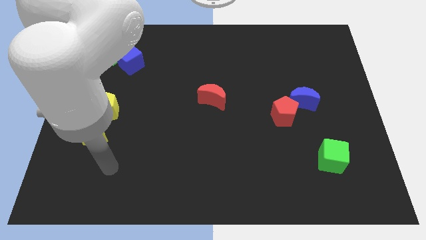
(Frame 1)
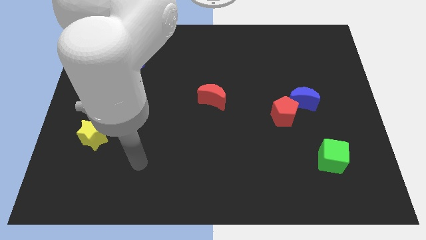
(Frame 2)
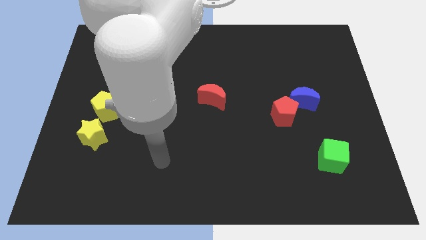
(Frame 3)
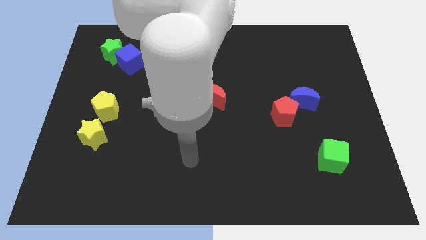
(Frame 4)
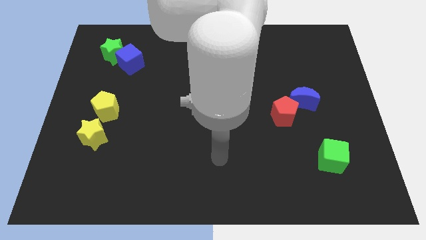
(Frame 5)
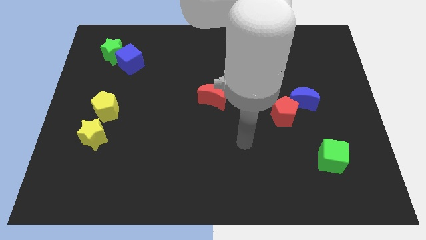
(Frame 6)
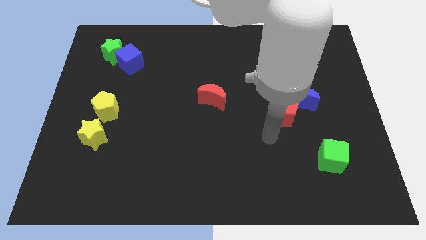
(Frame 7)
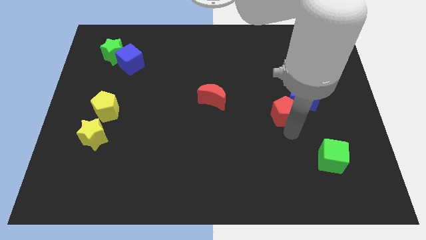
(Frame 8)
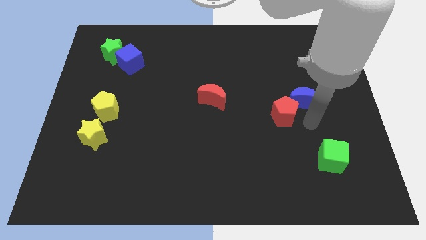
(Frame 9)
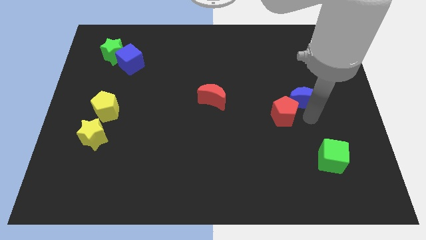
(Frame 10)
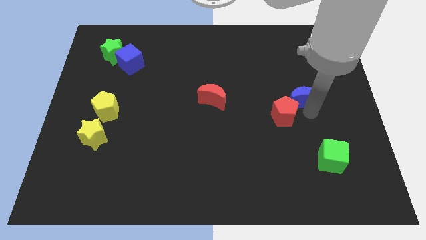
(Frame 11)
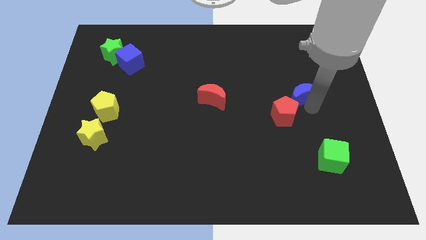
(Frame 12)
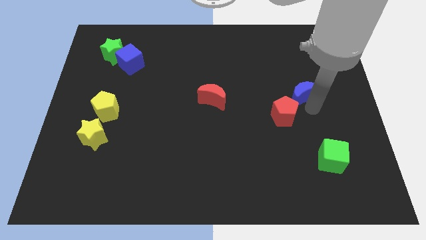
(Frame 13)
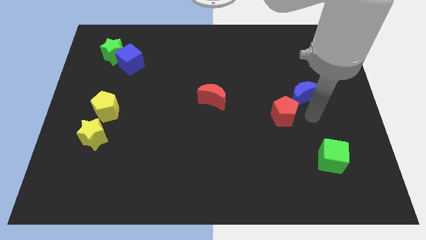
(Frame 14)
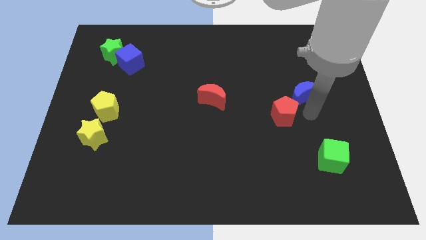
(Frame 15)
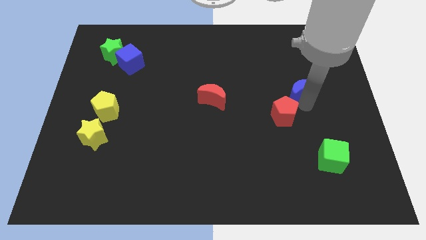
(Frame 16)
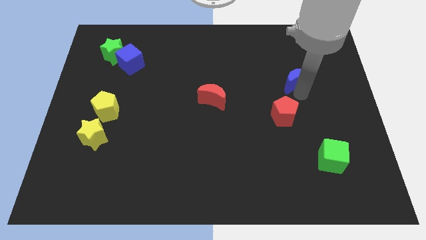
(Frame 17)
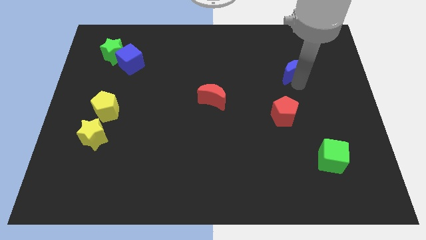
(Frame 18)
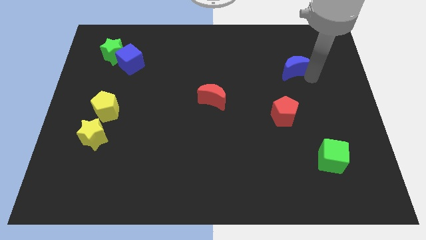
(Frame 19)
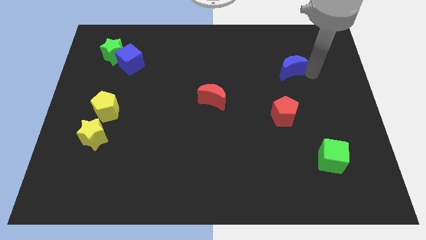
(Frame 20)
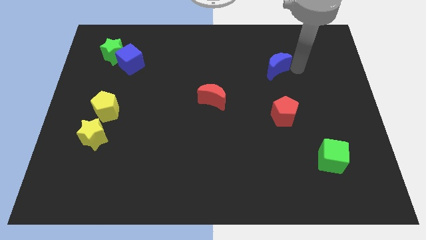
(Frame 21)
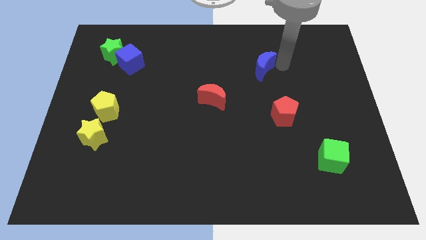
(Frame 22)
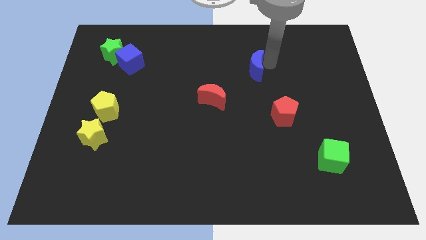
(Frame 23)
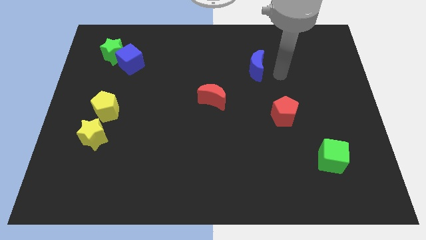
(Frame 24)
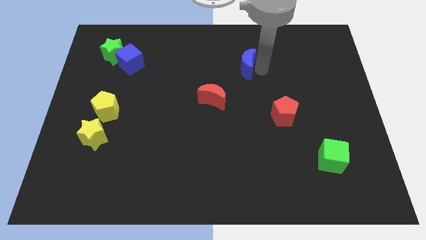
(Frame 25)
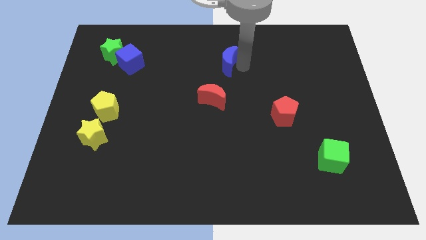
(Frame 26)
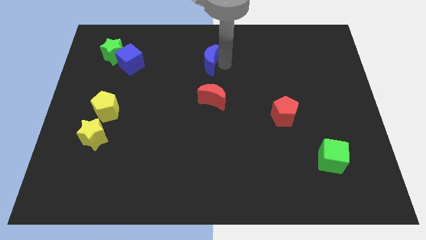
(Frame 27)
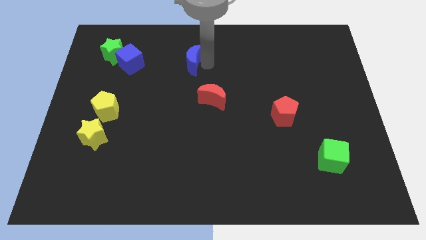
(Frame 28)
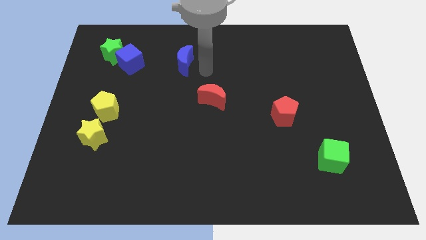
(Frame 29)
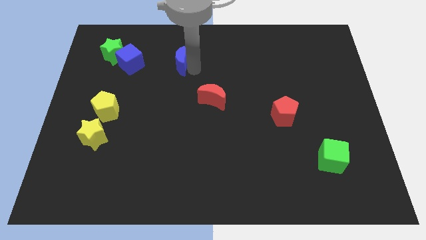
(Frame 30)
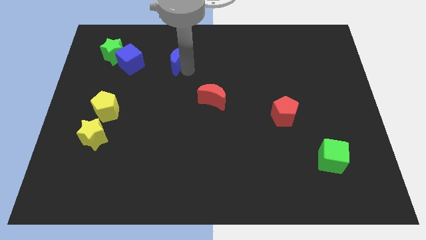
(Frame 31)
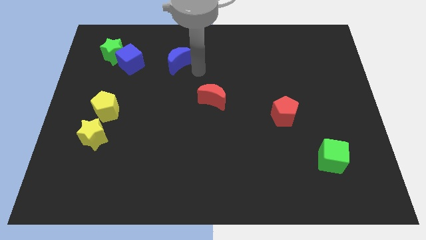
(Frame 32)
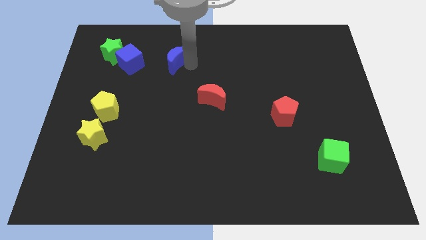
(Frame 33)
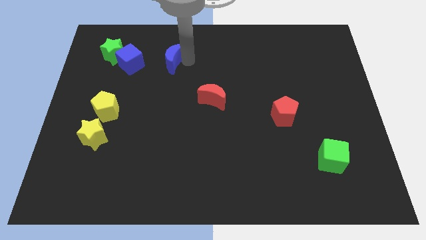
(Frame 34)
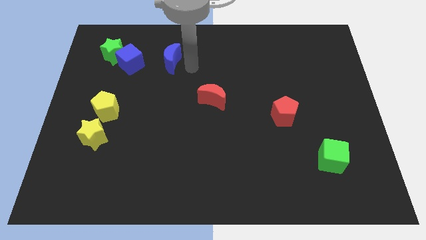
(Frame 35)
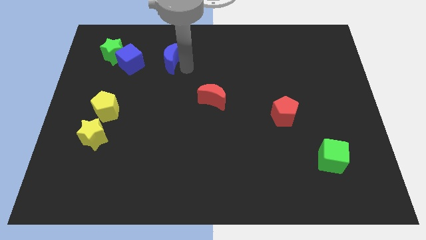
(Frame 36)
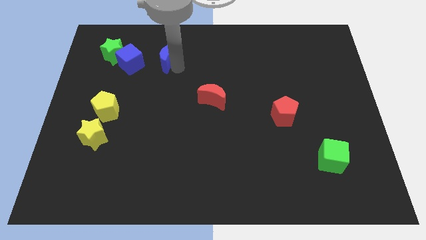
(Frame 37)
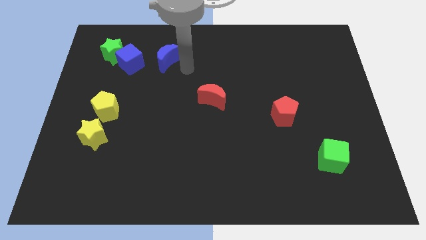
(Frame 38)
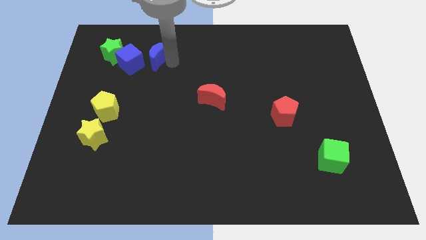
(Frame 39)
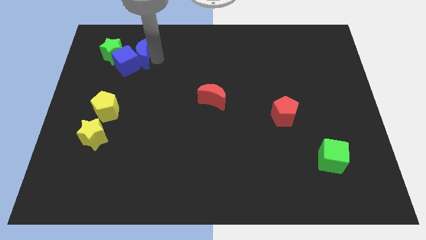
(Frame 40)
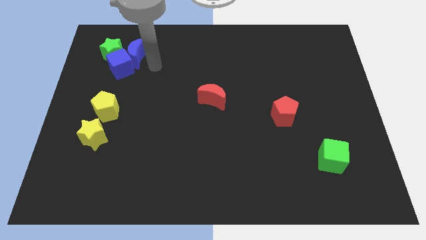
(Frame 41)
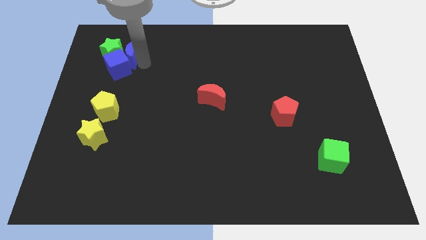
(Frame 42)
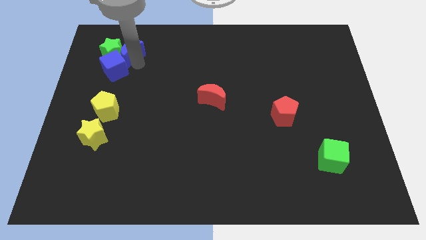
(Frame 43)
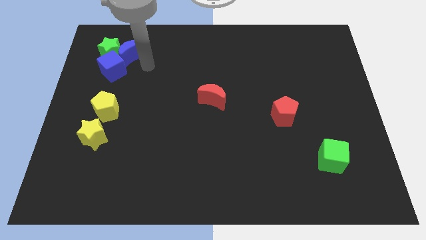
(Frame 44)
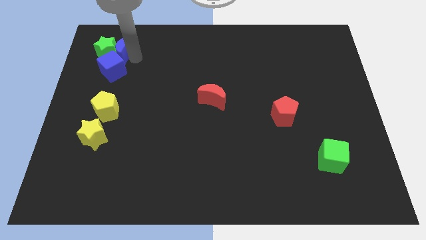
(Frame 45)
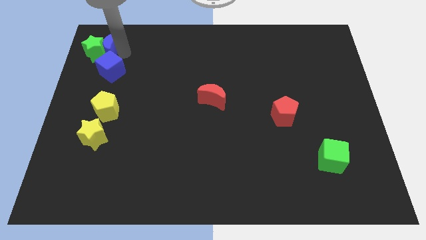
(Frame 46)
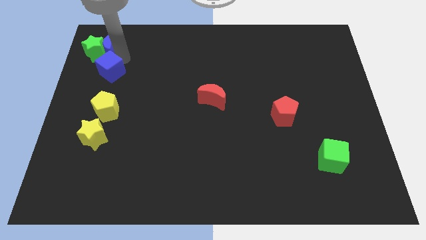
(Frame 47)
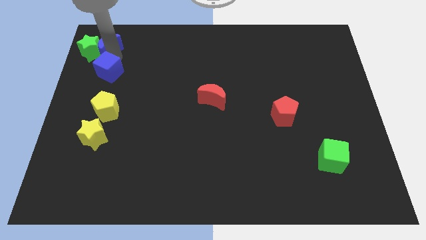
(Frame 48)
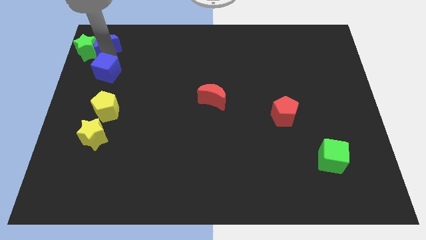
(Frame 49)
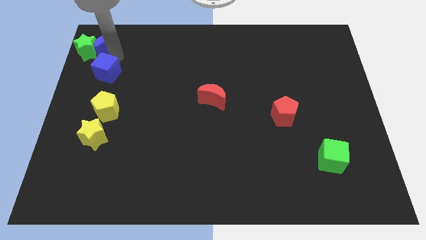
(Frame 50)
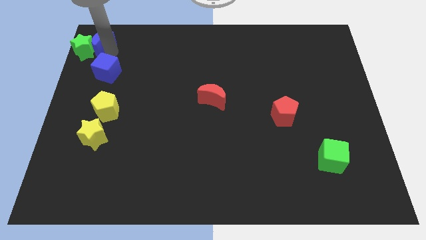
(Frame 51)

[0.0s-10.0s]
slide the blue moon to the top left

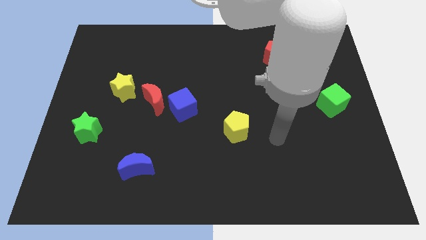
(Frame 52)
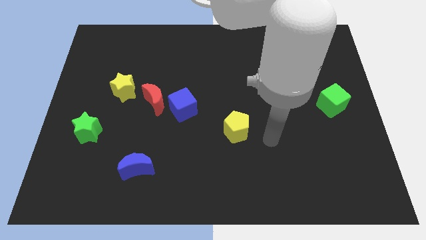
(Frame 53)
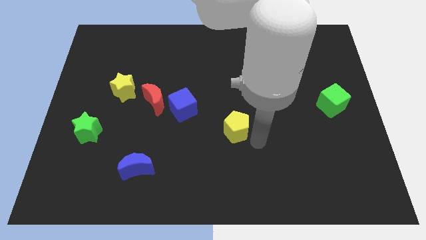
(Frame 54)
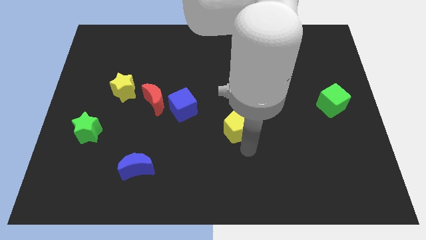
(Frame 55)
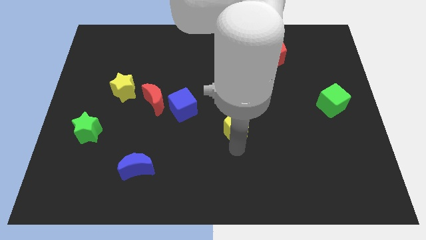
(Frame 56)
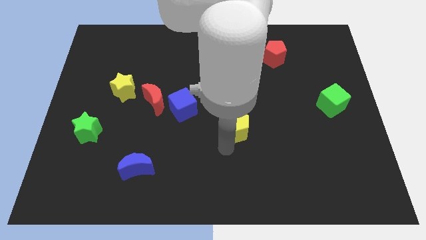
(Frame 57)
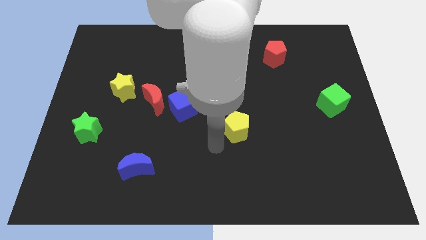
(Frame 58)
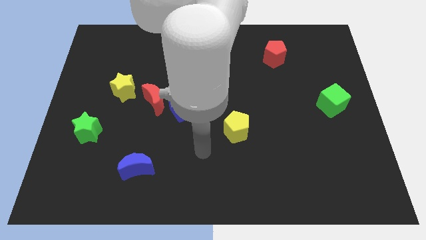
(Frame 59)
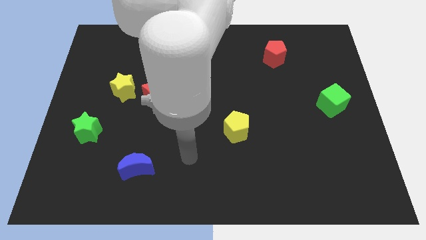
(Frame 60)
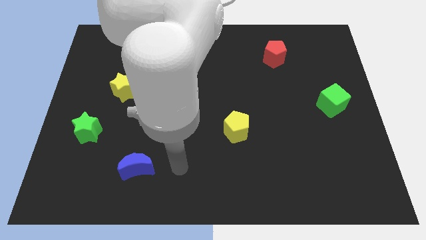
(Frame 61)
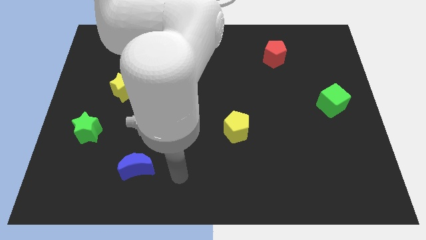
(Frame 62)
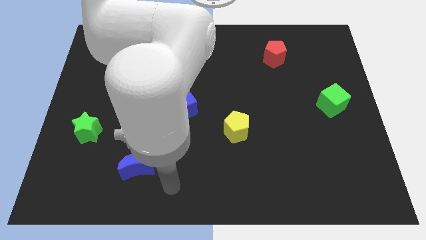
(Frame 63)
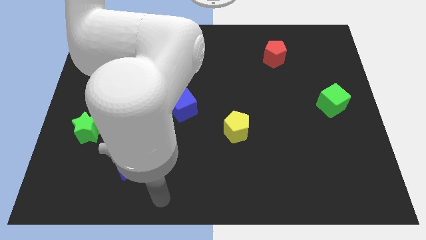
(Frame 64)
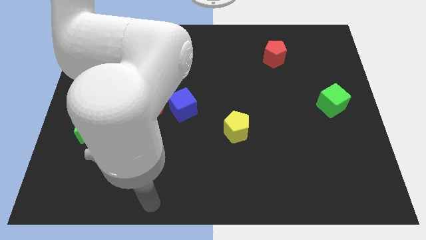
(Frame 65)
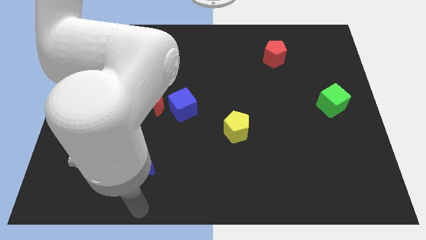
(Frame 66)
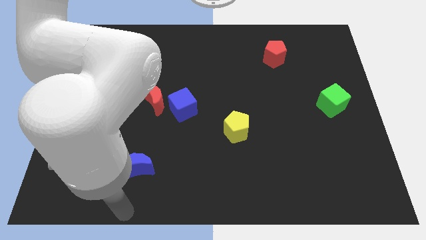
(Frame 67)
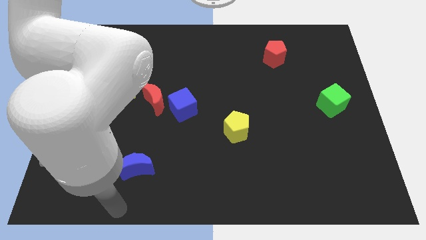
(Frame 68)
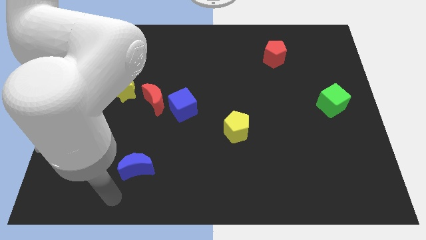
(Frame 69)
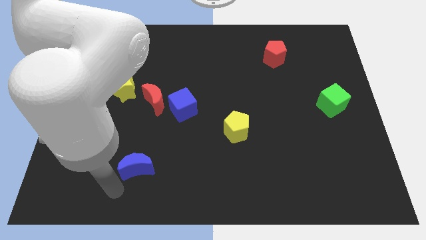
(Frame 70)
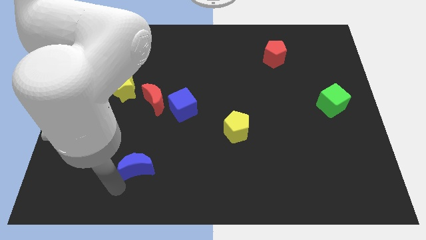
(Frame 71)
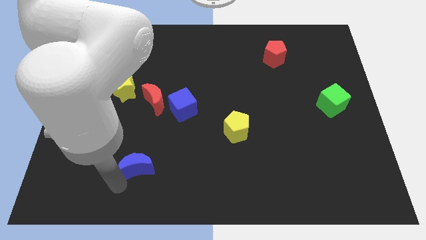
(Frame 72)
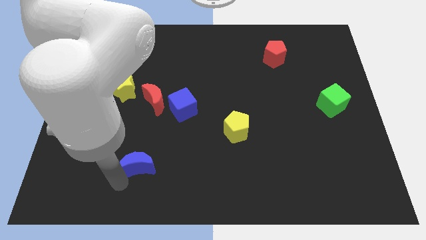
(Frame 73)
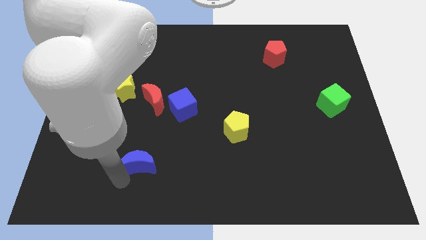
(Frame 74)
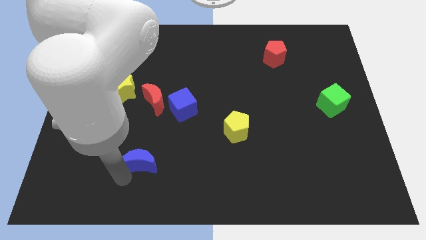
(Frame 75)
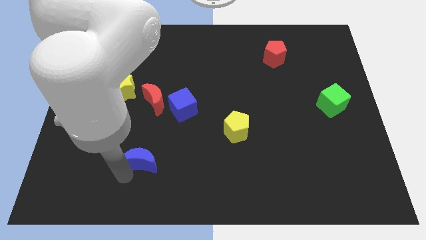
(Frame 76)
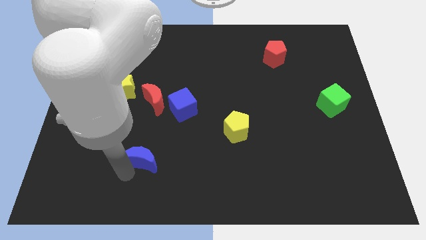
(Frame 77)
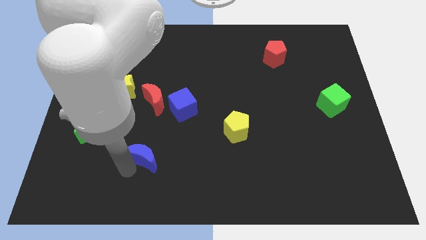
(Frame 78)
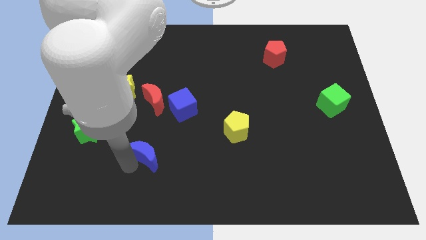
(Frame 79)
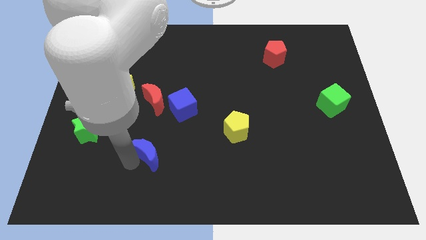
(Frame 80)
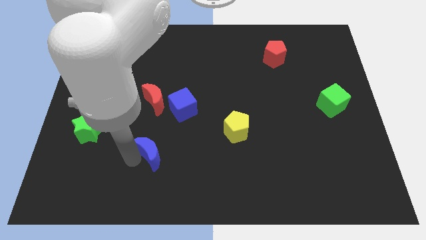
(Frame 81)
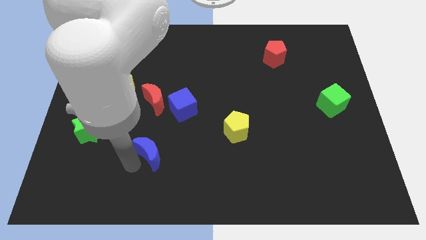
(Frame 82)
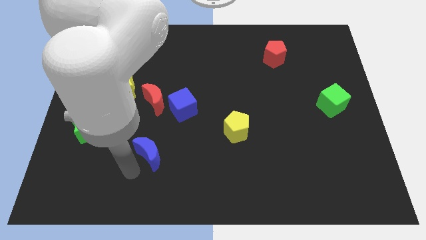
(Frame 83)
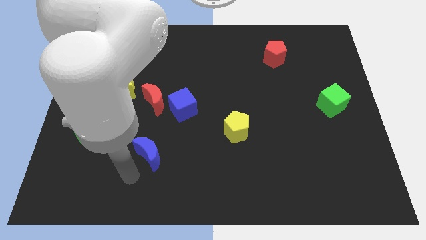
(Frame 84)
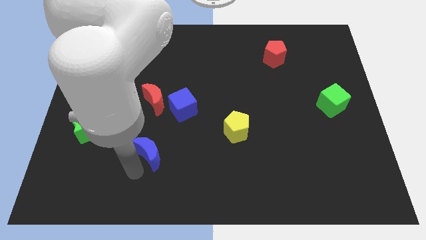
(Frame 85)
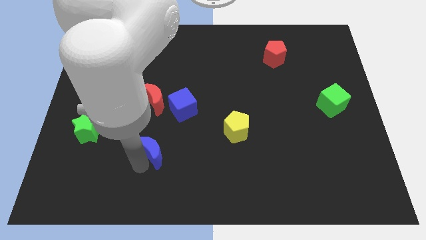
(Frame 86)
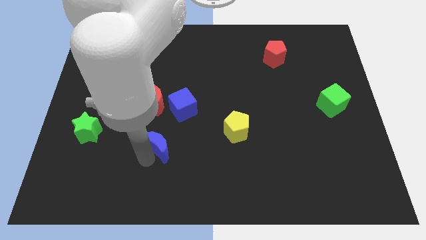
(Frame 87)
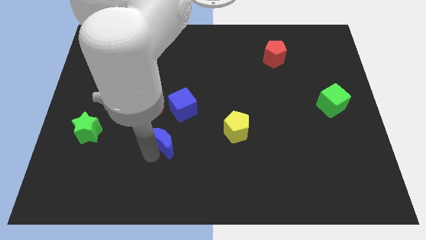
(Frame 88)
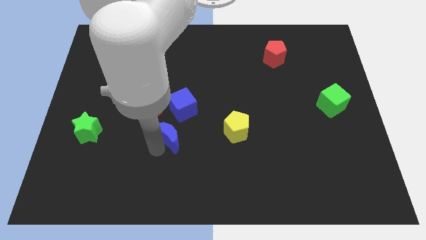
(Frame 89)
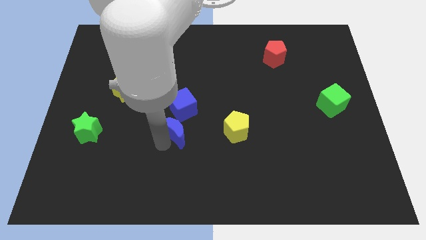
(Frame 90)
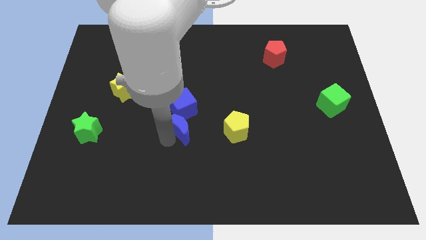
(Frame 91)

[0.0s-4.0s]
put the blue moon to the middle of the board
